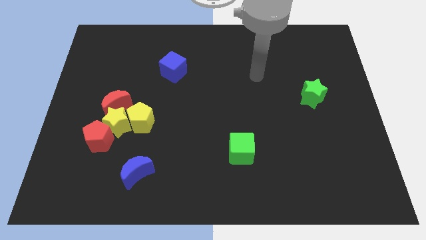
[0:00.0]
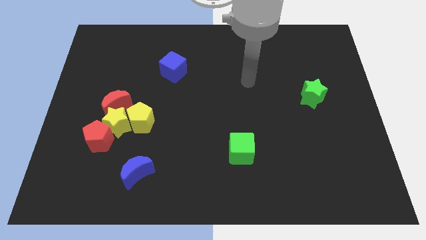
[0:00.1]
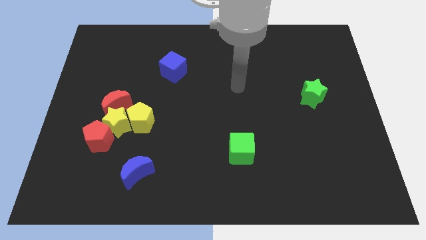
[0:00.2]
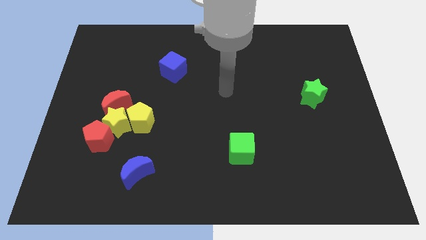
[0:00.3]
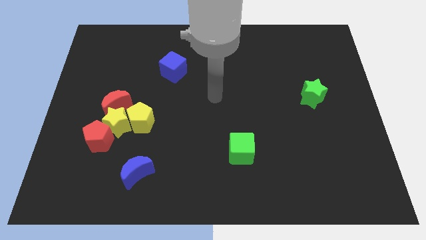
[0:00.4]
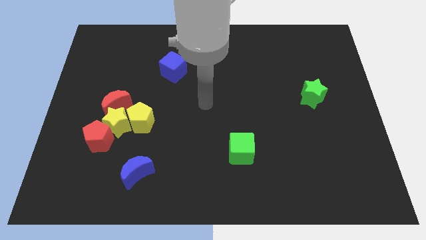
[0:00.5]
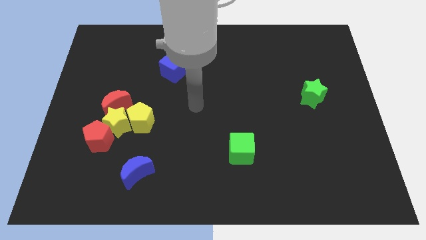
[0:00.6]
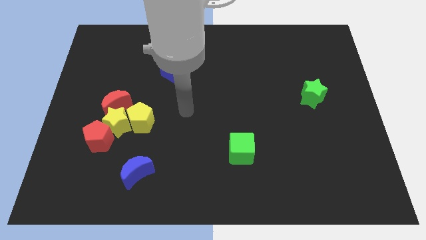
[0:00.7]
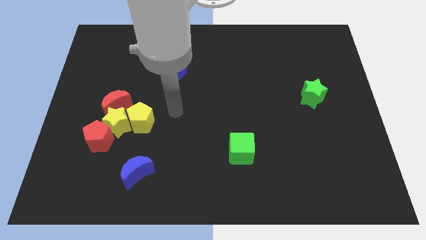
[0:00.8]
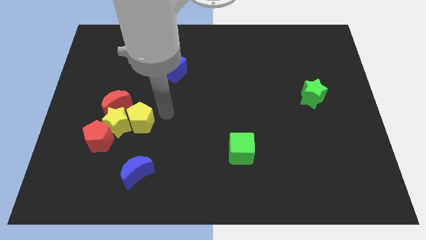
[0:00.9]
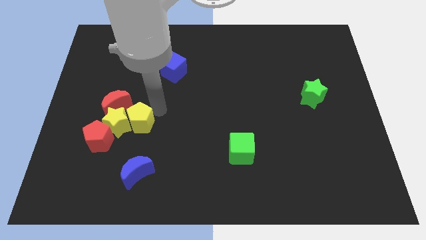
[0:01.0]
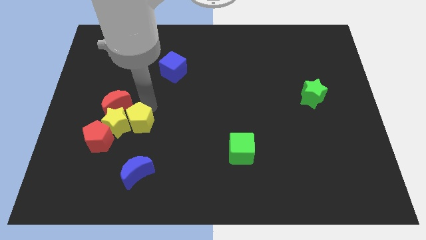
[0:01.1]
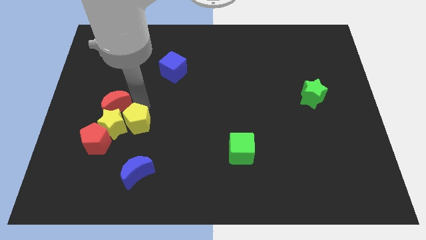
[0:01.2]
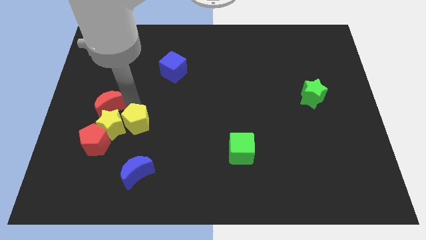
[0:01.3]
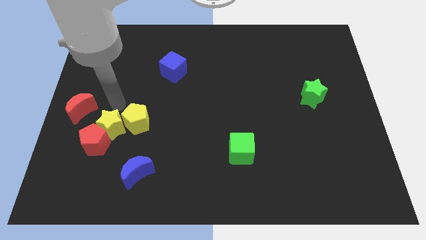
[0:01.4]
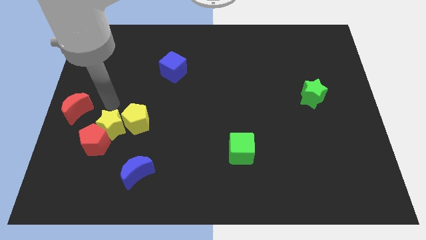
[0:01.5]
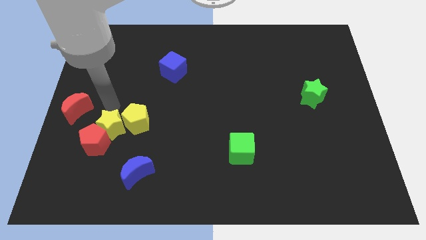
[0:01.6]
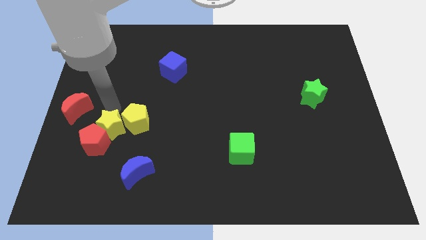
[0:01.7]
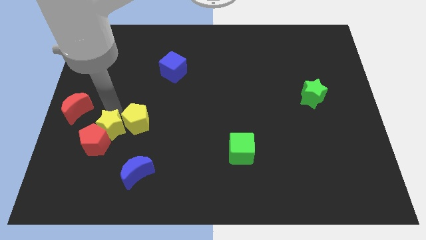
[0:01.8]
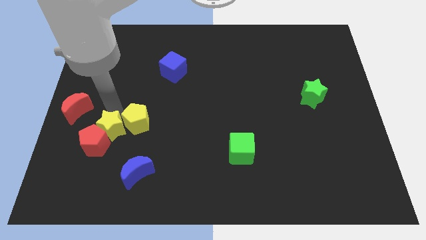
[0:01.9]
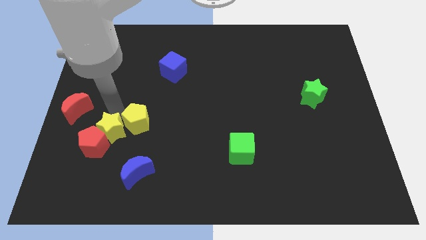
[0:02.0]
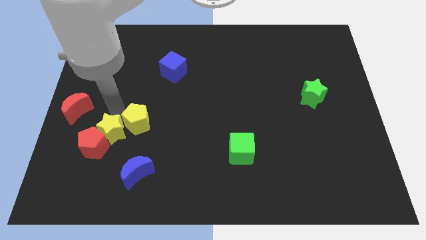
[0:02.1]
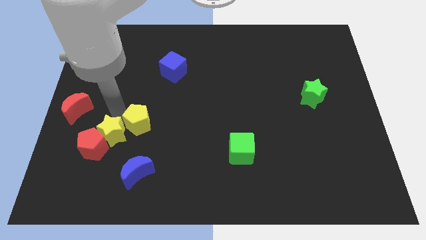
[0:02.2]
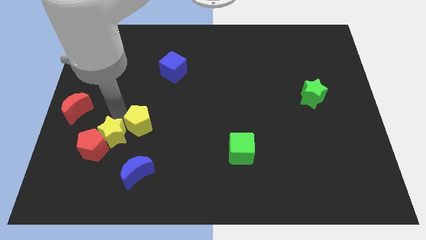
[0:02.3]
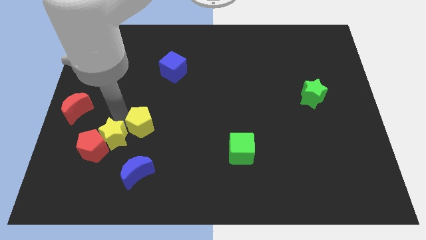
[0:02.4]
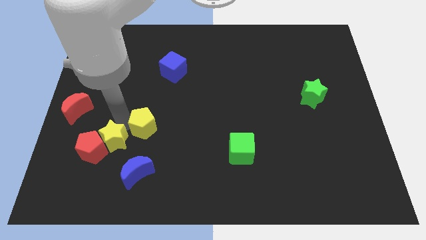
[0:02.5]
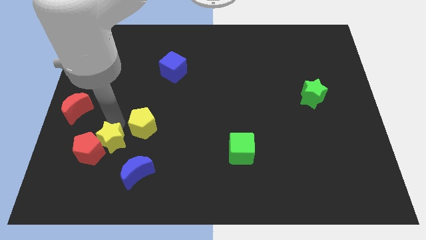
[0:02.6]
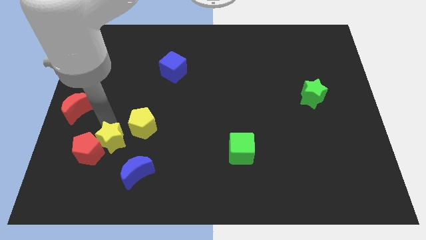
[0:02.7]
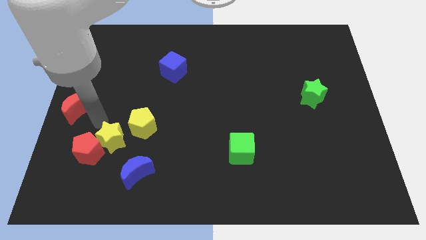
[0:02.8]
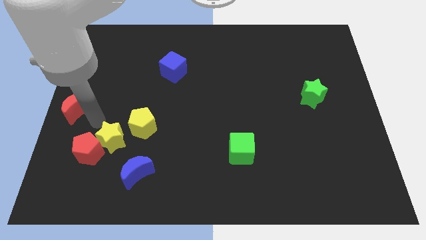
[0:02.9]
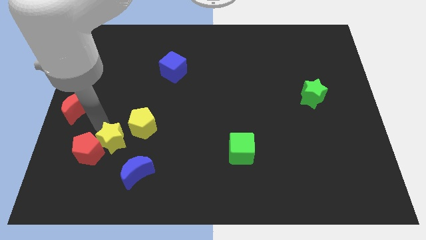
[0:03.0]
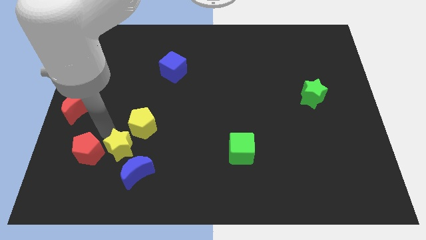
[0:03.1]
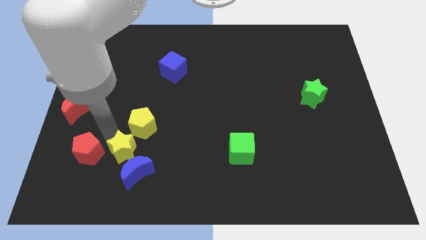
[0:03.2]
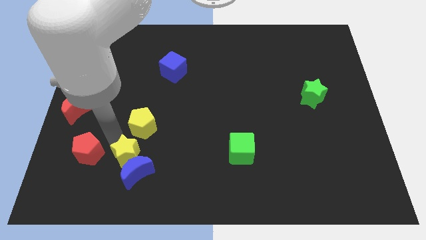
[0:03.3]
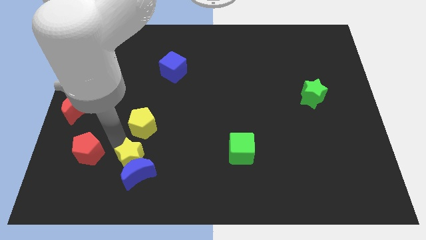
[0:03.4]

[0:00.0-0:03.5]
move the yellow star away from the yellow pentagon, red moon, and red pentagon

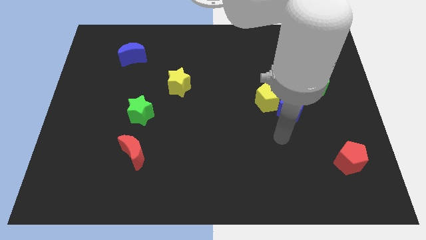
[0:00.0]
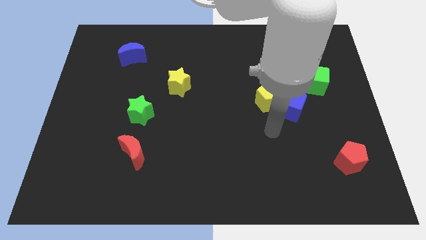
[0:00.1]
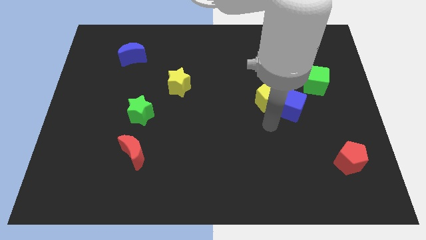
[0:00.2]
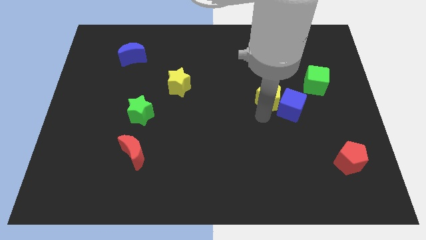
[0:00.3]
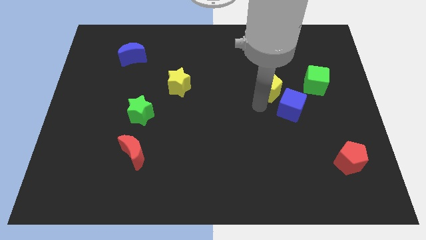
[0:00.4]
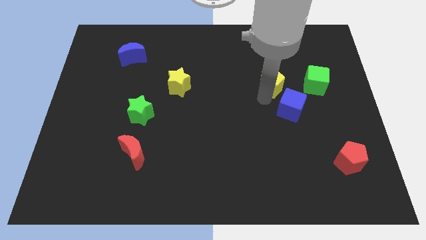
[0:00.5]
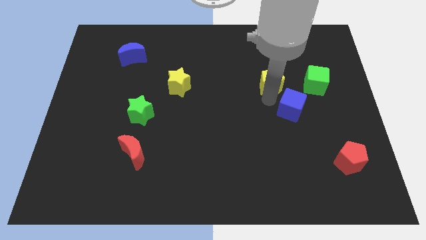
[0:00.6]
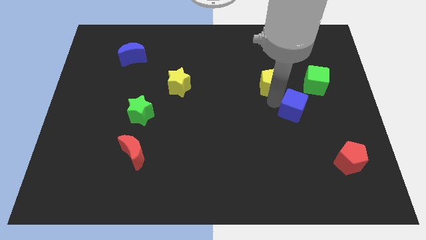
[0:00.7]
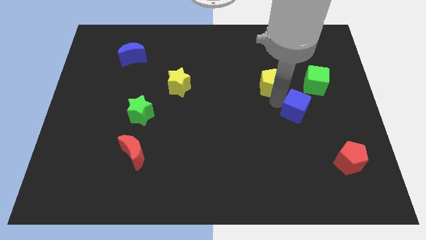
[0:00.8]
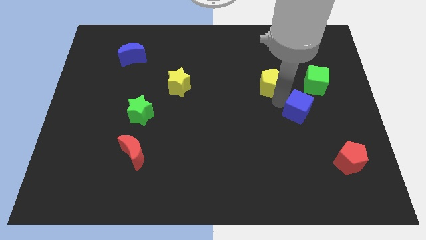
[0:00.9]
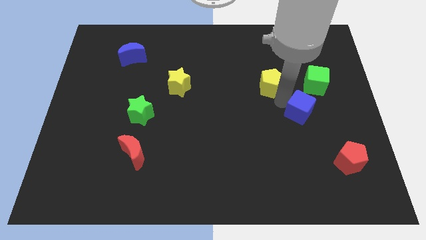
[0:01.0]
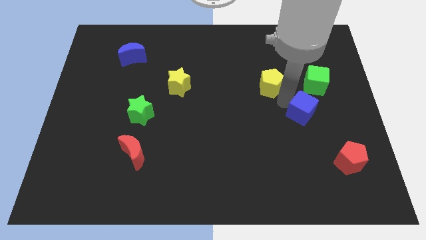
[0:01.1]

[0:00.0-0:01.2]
separate the blue cube from the yellow pentagon

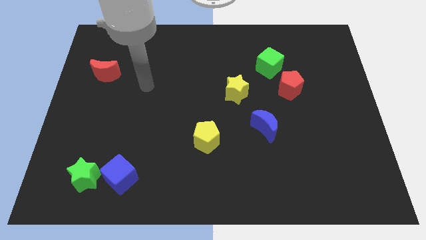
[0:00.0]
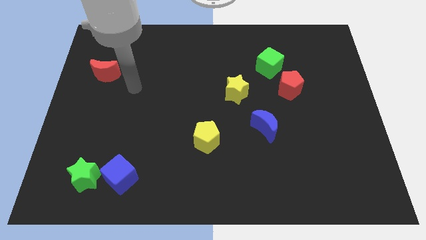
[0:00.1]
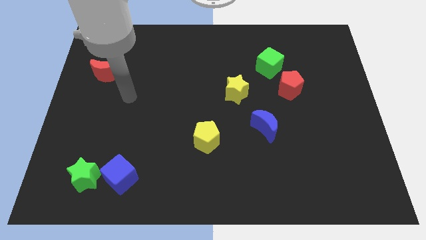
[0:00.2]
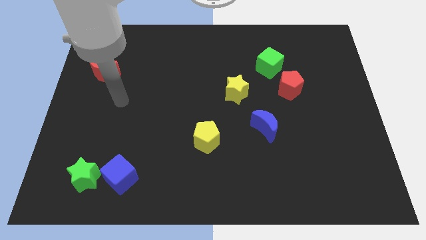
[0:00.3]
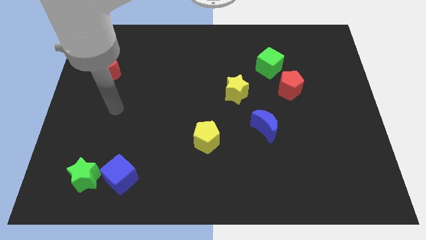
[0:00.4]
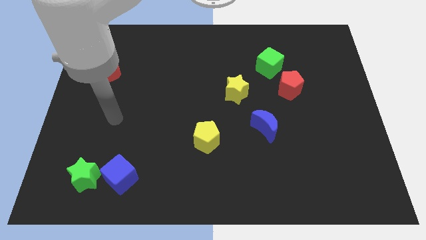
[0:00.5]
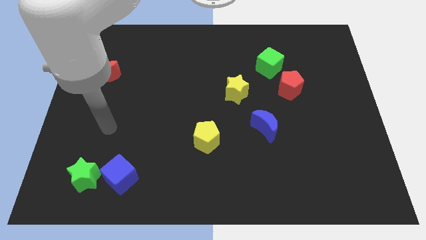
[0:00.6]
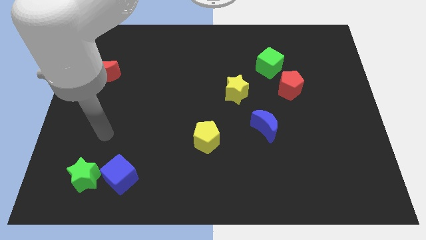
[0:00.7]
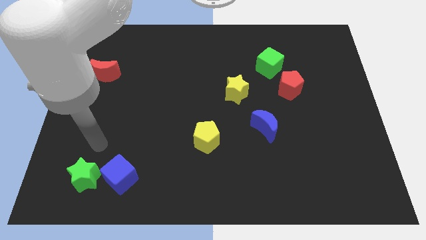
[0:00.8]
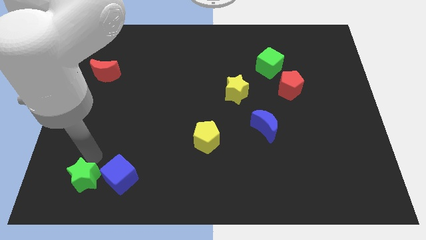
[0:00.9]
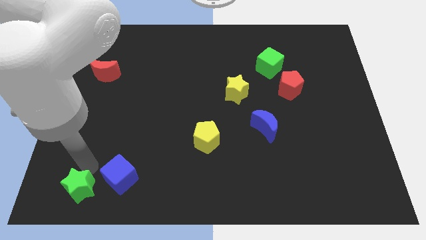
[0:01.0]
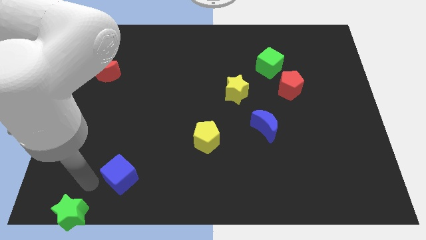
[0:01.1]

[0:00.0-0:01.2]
separate the blue cube from the green star

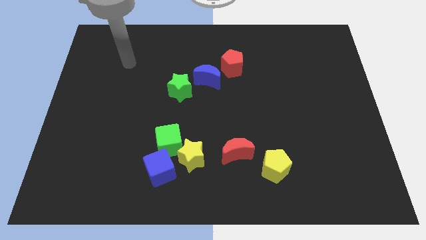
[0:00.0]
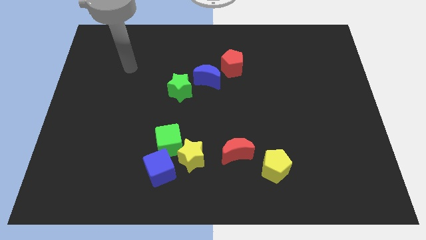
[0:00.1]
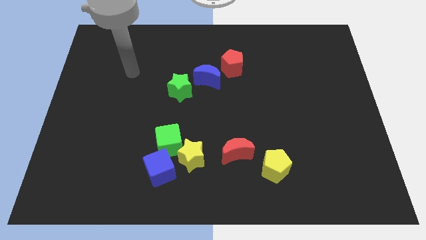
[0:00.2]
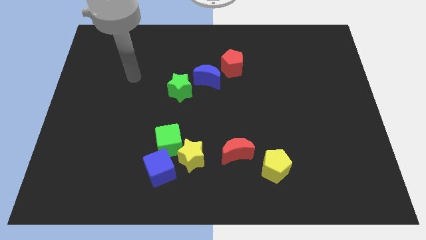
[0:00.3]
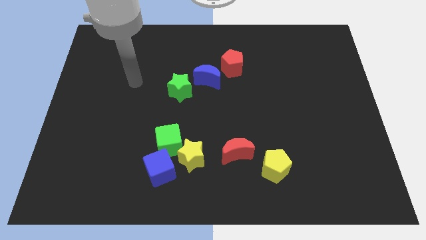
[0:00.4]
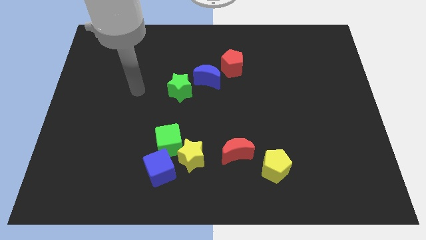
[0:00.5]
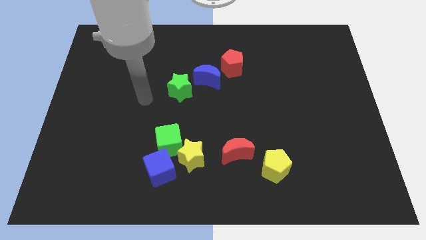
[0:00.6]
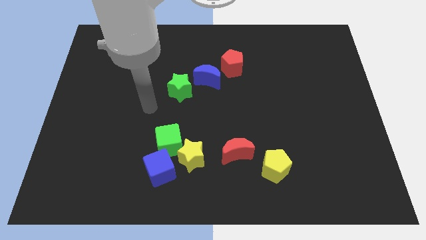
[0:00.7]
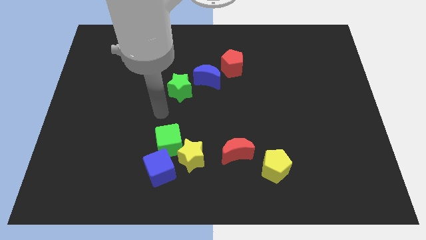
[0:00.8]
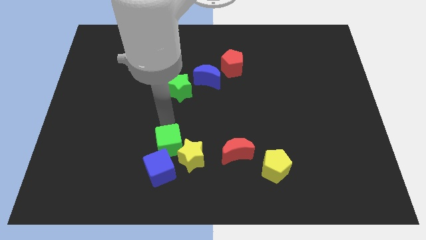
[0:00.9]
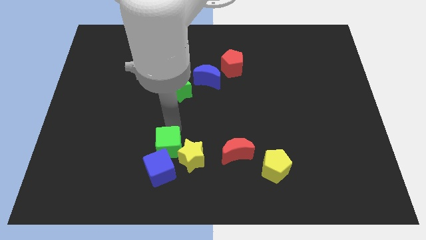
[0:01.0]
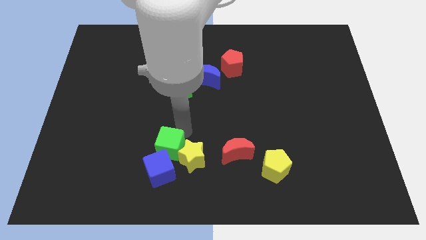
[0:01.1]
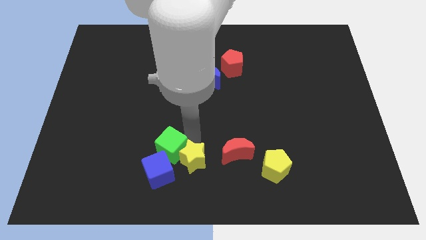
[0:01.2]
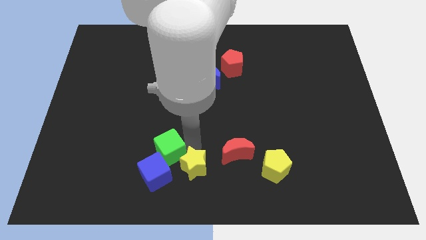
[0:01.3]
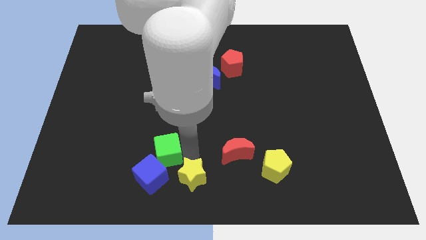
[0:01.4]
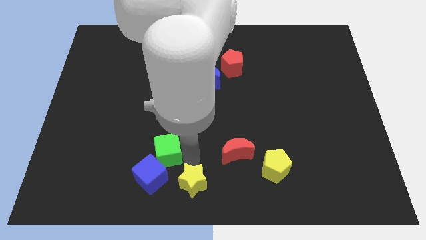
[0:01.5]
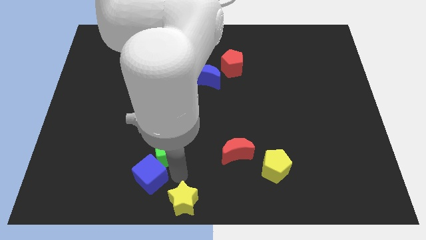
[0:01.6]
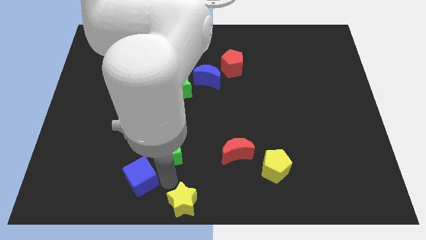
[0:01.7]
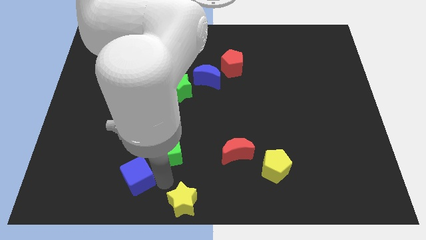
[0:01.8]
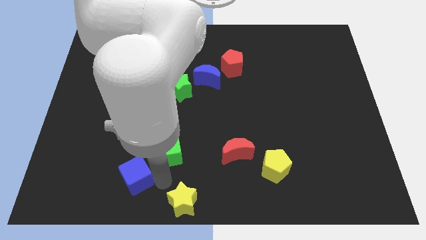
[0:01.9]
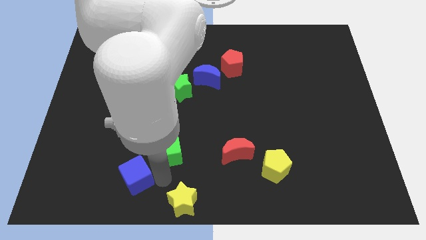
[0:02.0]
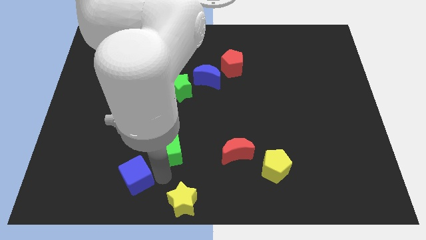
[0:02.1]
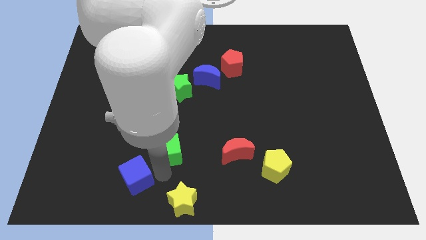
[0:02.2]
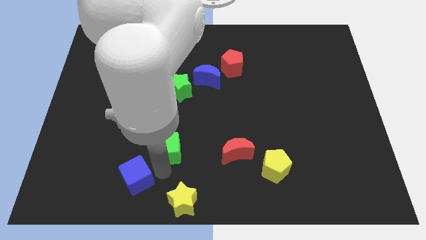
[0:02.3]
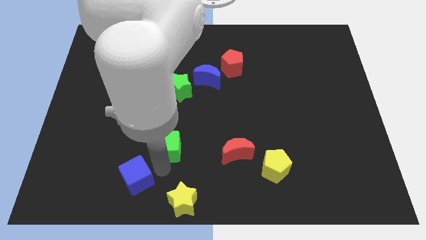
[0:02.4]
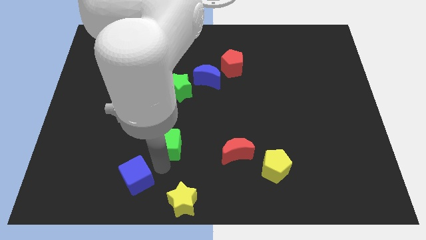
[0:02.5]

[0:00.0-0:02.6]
separate the green cube from the yellow star and blue cube

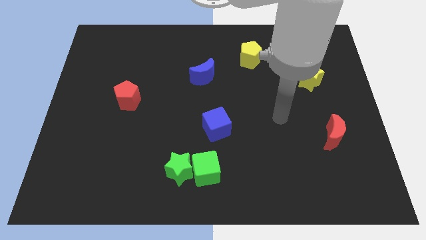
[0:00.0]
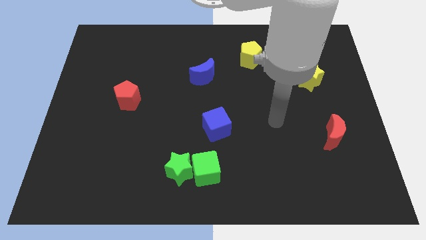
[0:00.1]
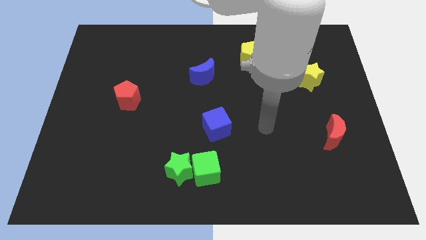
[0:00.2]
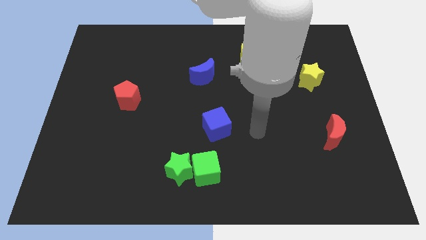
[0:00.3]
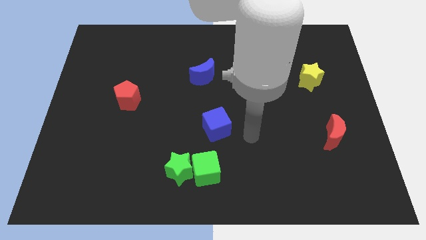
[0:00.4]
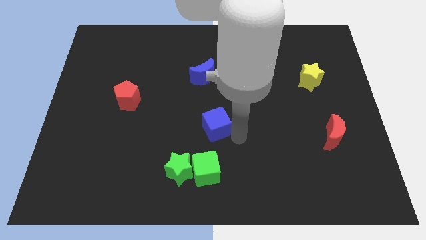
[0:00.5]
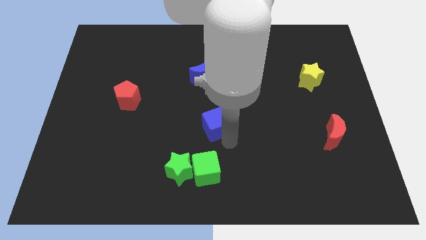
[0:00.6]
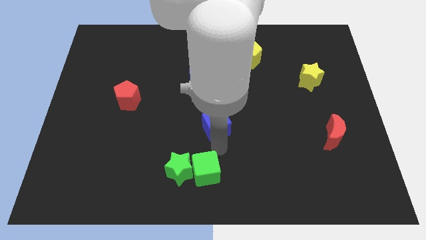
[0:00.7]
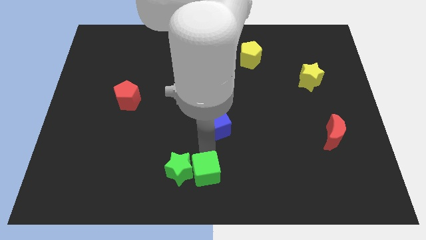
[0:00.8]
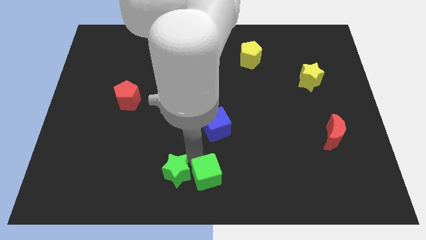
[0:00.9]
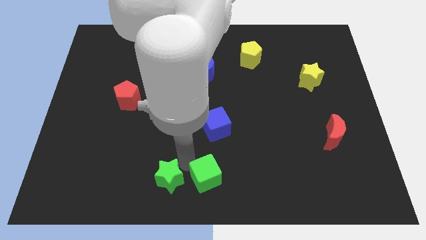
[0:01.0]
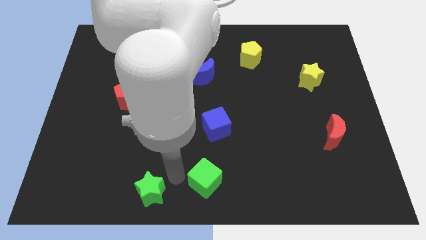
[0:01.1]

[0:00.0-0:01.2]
pull the green cube apart from the green star
